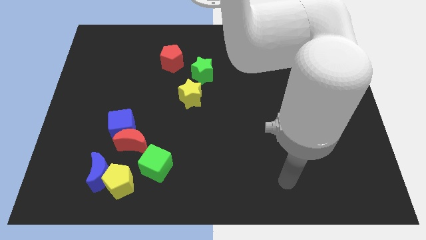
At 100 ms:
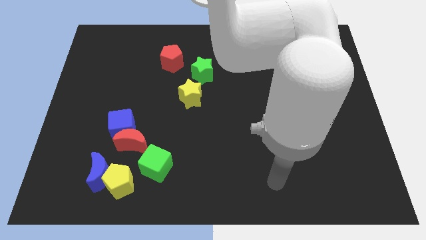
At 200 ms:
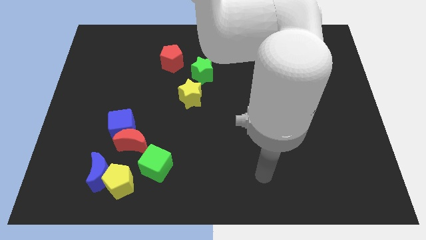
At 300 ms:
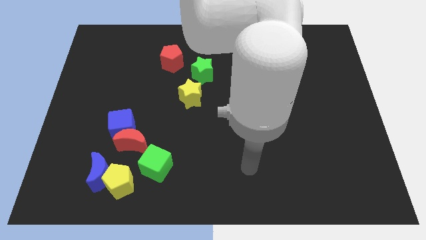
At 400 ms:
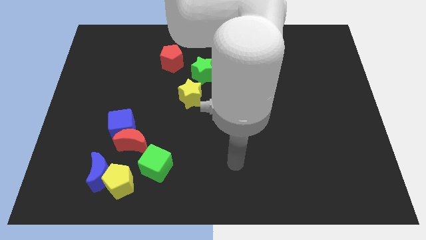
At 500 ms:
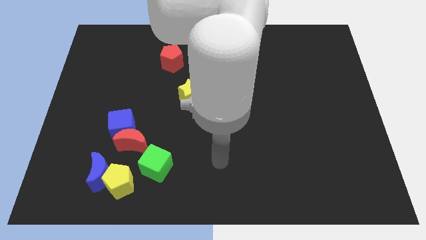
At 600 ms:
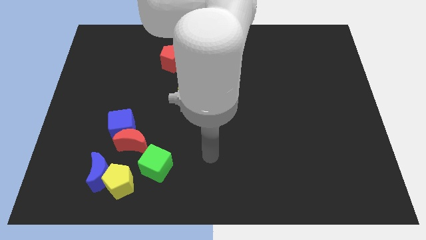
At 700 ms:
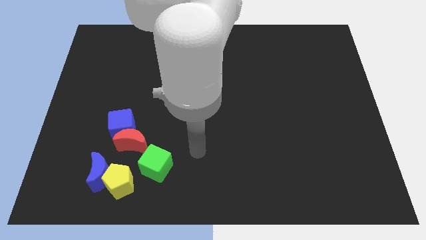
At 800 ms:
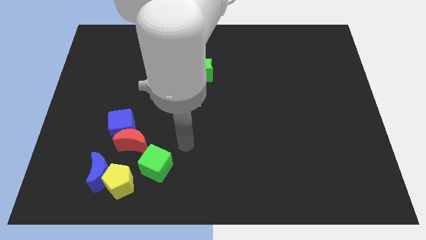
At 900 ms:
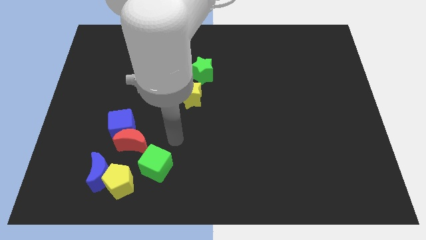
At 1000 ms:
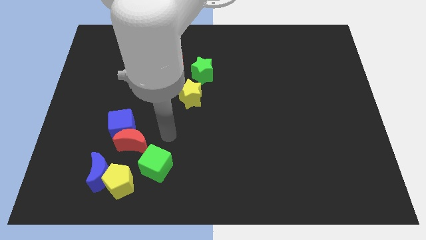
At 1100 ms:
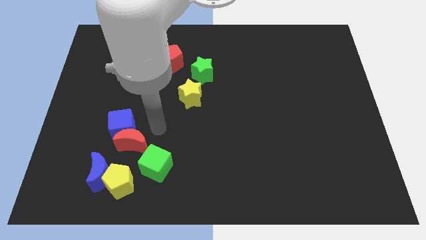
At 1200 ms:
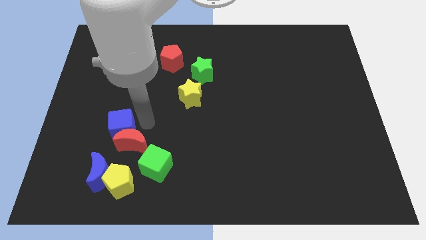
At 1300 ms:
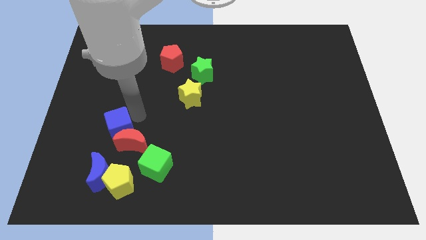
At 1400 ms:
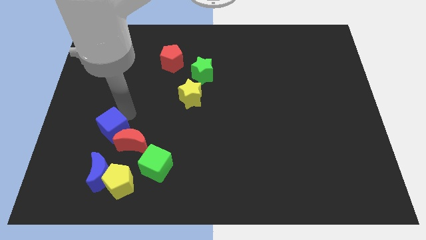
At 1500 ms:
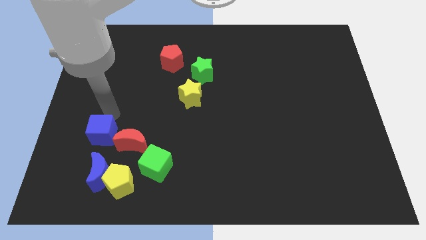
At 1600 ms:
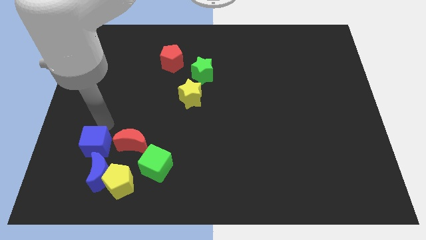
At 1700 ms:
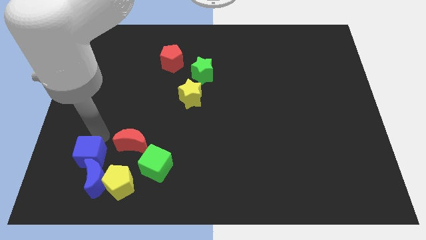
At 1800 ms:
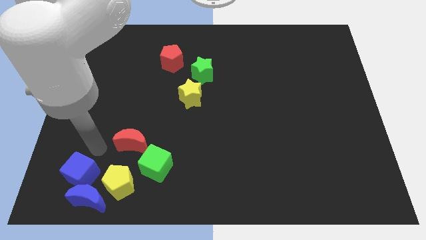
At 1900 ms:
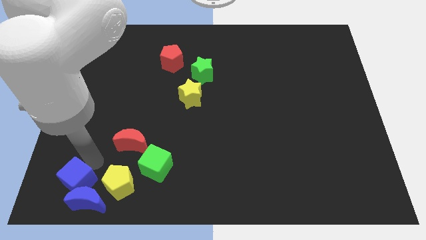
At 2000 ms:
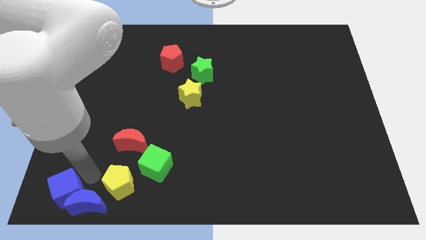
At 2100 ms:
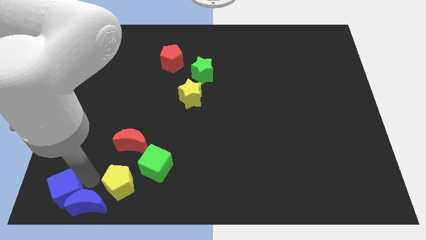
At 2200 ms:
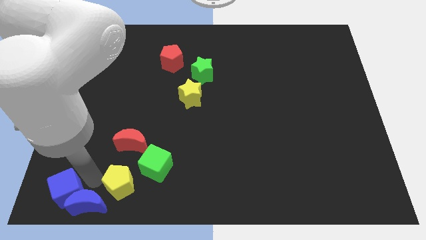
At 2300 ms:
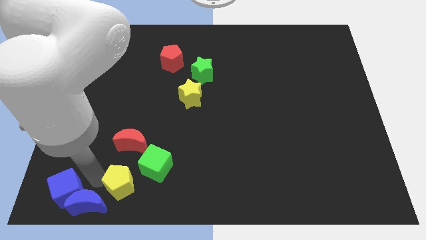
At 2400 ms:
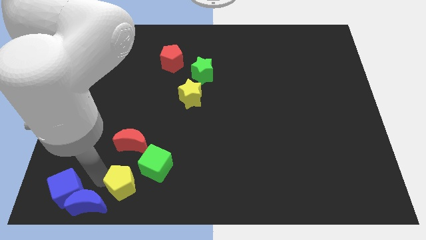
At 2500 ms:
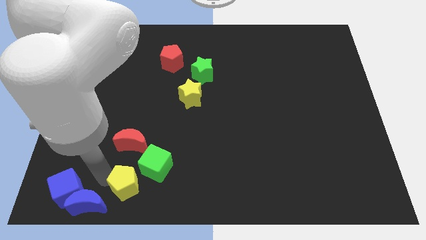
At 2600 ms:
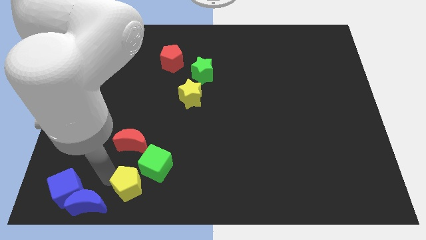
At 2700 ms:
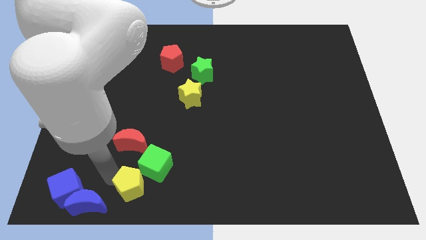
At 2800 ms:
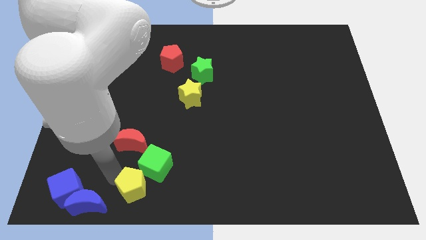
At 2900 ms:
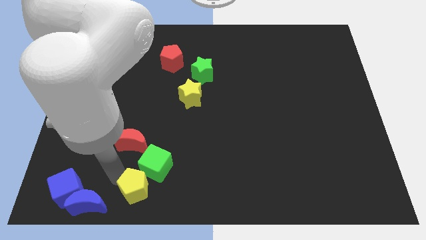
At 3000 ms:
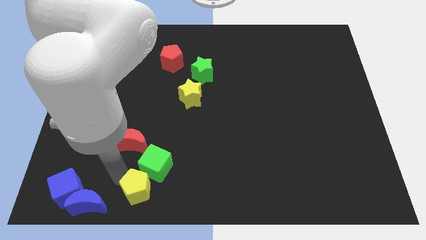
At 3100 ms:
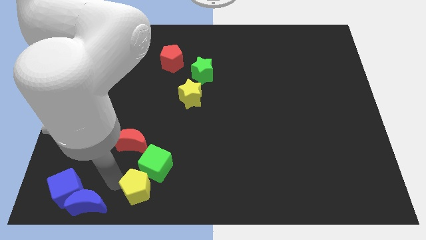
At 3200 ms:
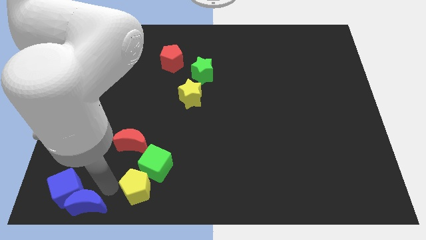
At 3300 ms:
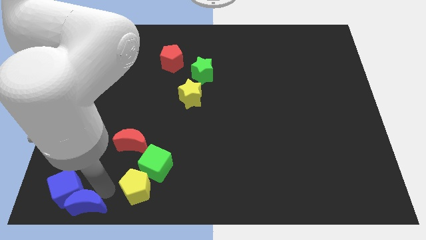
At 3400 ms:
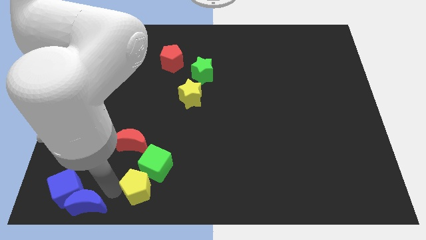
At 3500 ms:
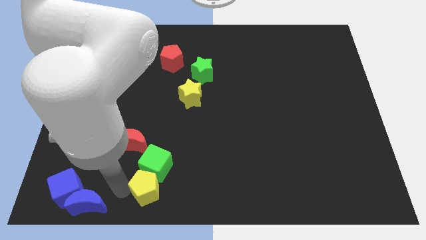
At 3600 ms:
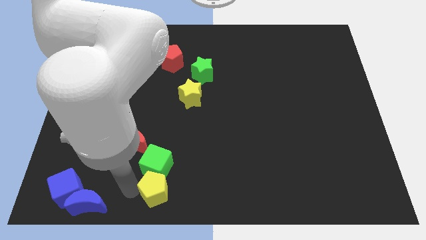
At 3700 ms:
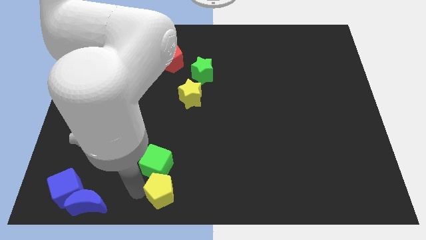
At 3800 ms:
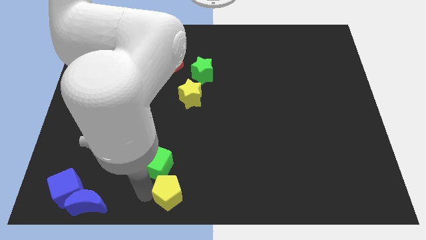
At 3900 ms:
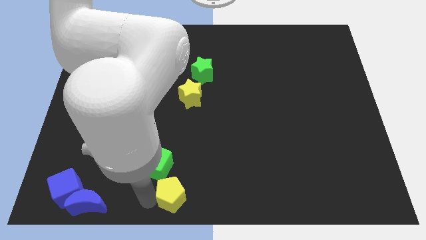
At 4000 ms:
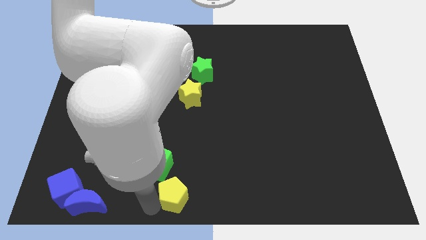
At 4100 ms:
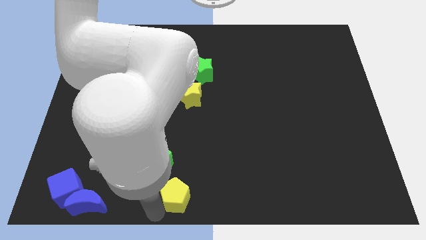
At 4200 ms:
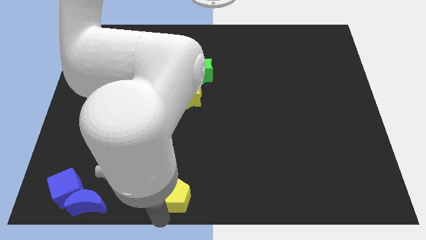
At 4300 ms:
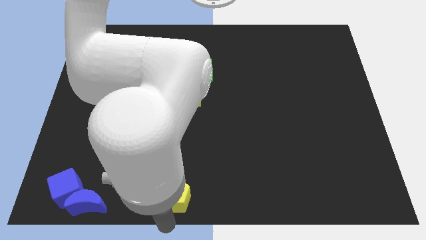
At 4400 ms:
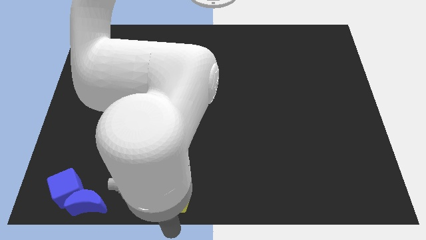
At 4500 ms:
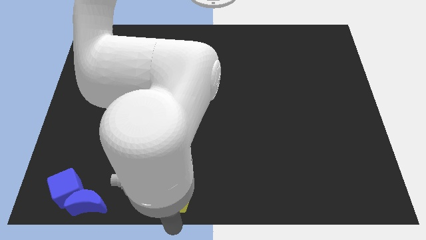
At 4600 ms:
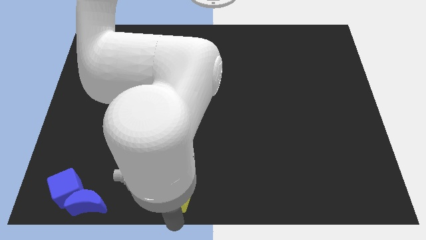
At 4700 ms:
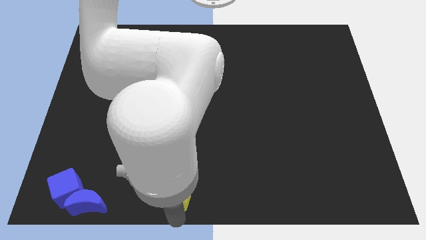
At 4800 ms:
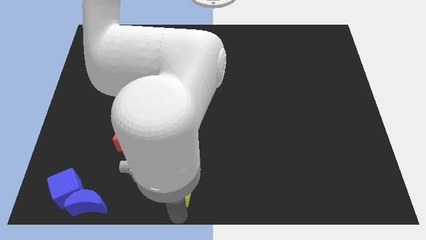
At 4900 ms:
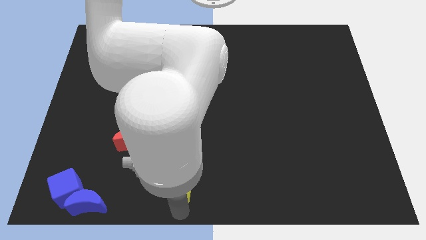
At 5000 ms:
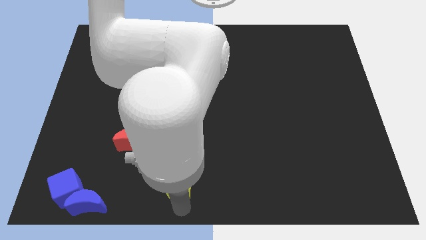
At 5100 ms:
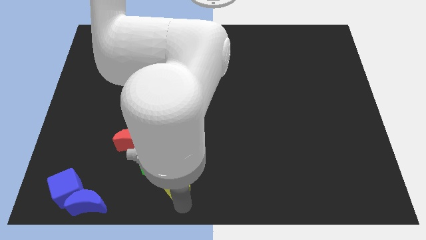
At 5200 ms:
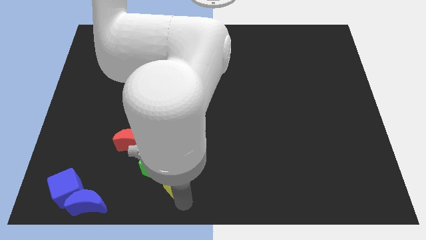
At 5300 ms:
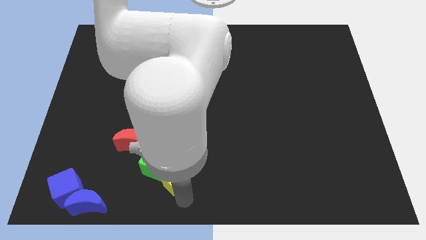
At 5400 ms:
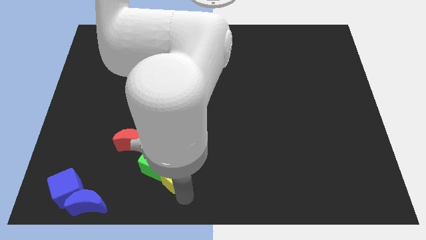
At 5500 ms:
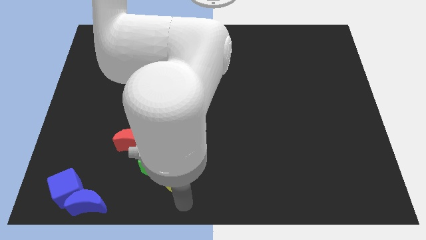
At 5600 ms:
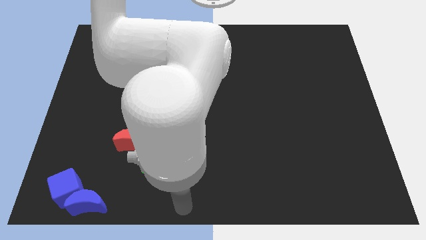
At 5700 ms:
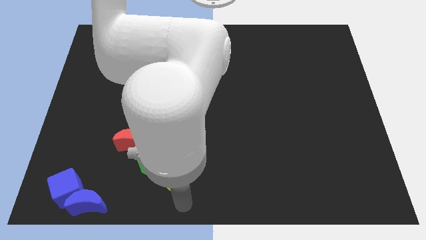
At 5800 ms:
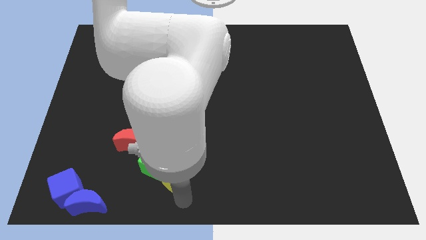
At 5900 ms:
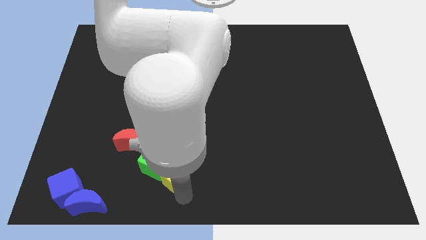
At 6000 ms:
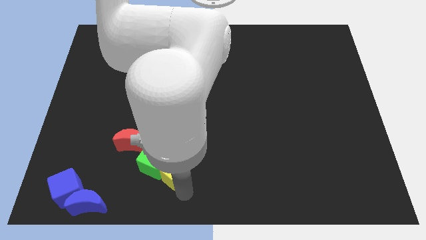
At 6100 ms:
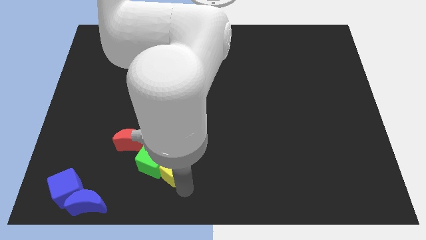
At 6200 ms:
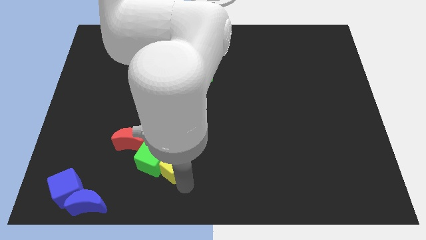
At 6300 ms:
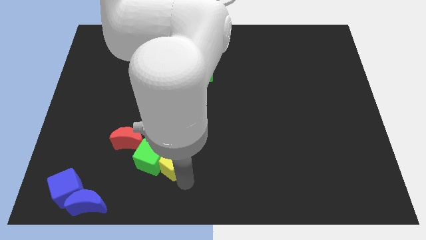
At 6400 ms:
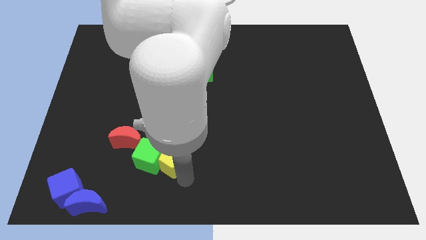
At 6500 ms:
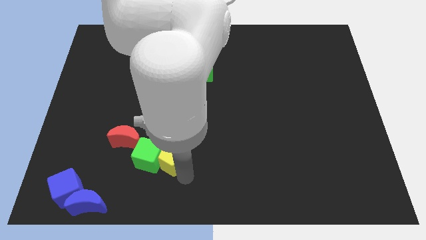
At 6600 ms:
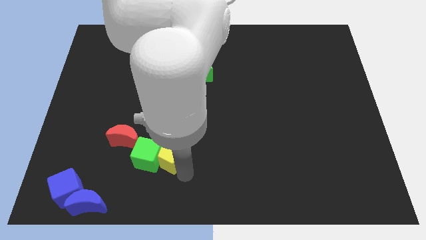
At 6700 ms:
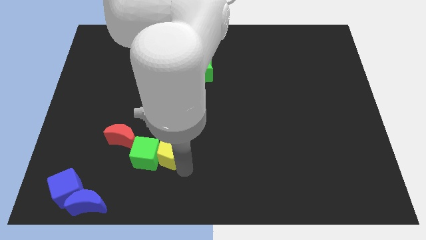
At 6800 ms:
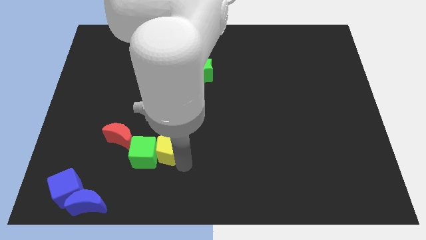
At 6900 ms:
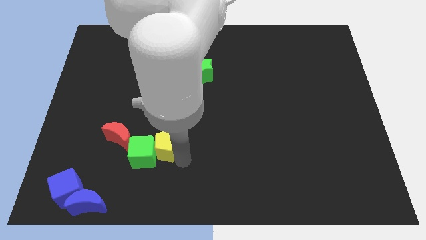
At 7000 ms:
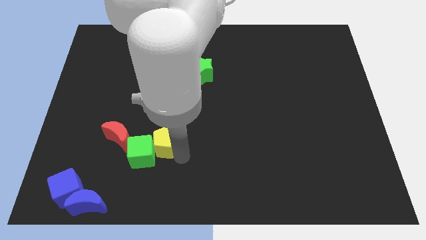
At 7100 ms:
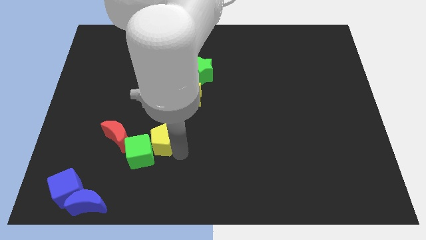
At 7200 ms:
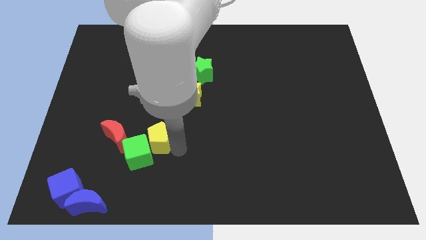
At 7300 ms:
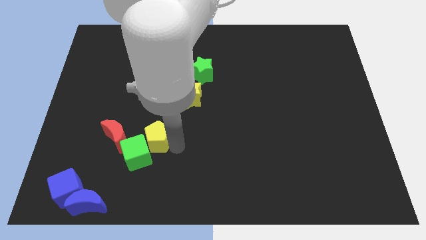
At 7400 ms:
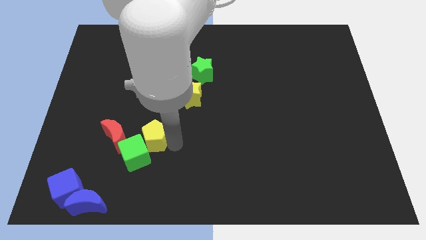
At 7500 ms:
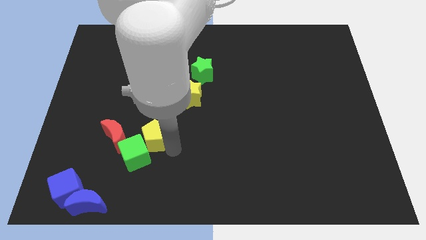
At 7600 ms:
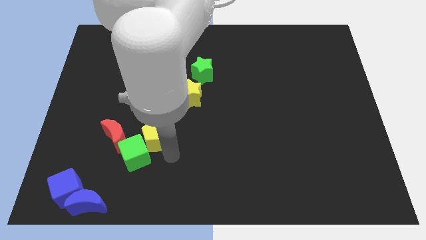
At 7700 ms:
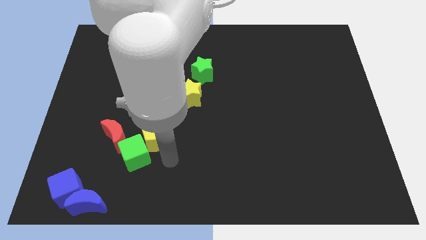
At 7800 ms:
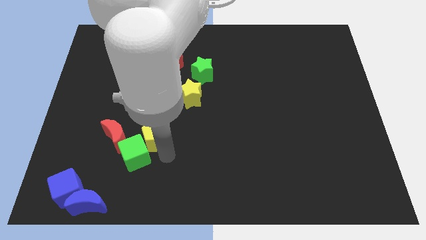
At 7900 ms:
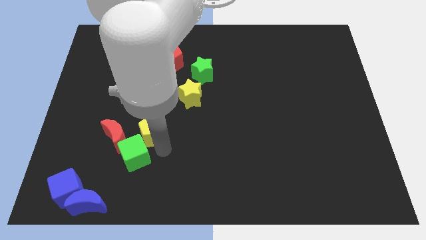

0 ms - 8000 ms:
push the yellow pentagon to the top right of the red moon
